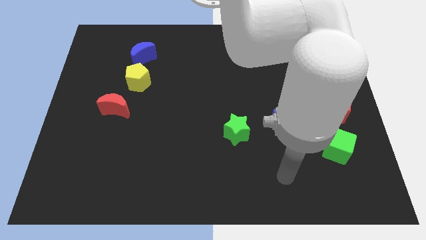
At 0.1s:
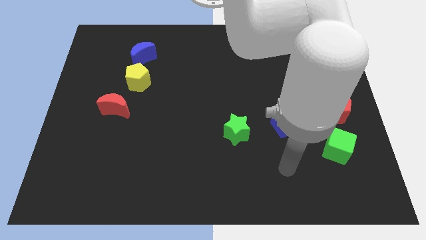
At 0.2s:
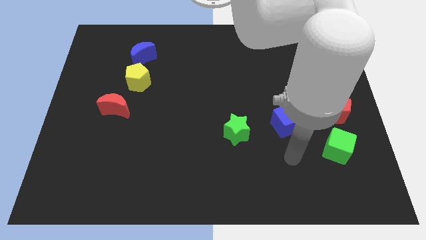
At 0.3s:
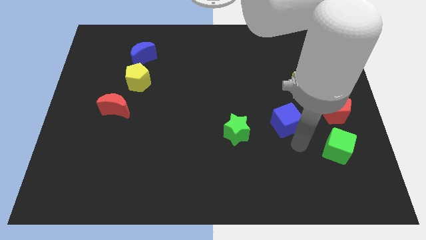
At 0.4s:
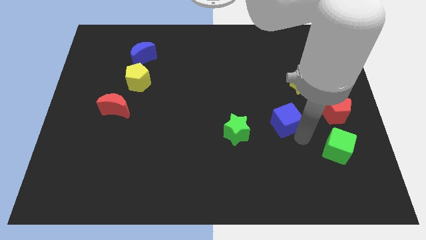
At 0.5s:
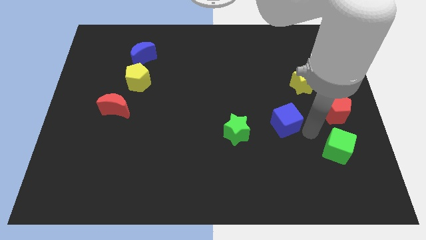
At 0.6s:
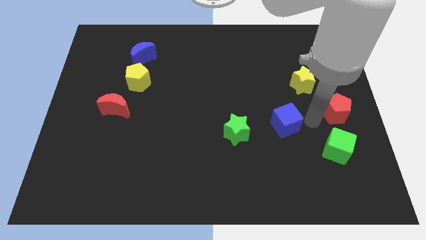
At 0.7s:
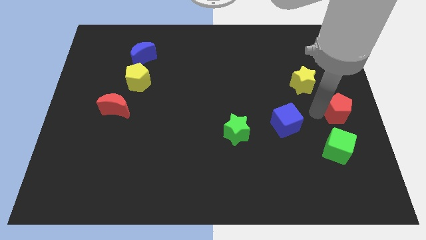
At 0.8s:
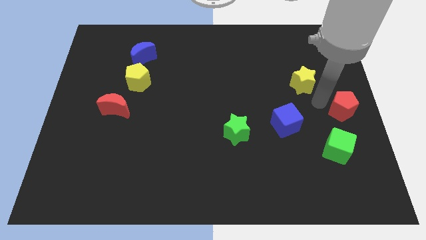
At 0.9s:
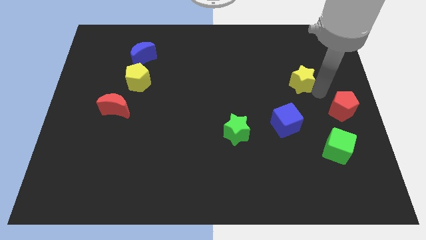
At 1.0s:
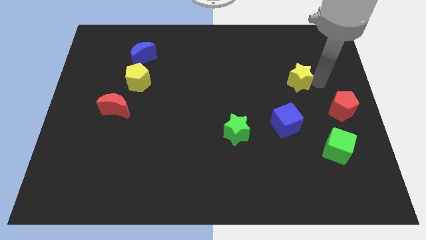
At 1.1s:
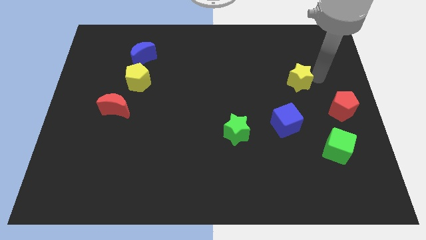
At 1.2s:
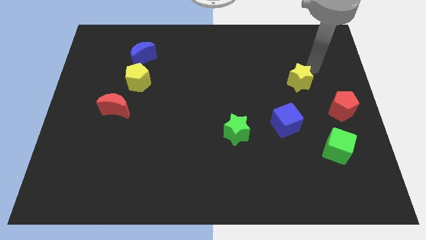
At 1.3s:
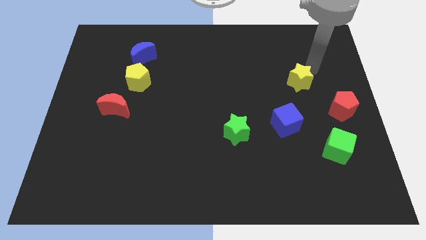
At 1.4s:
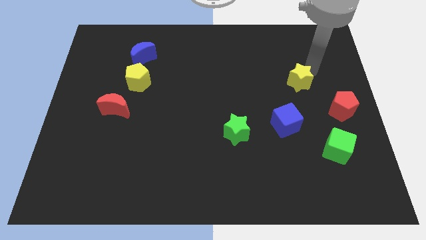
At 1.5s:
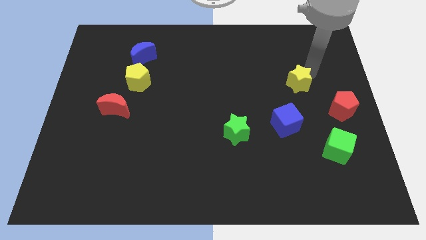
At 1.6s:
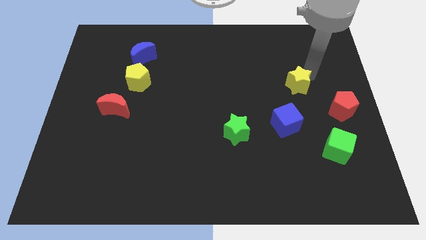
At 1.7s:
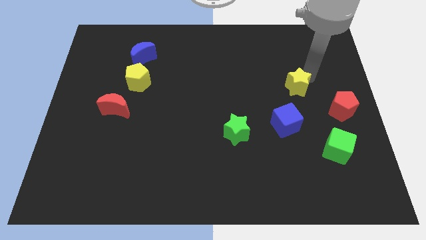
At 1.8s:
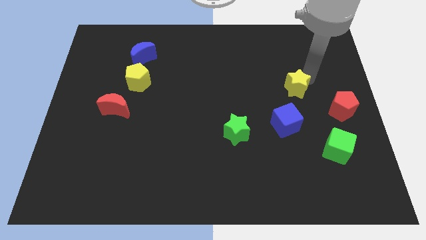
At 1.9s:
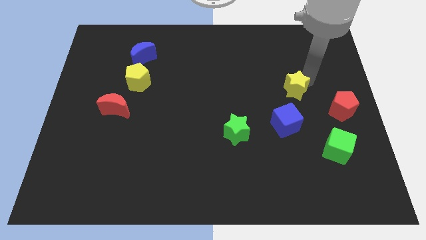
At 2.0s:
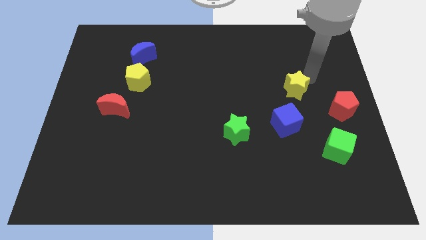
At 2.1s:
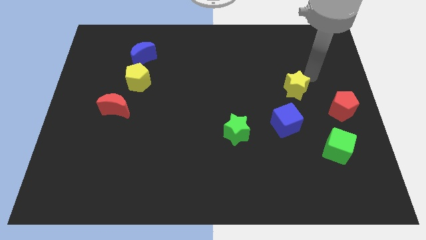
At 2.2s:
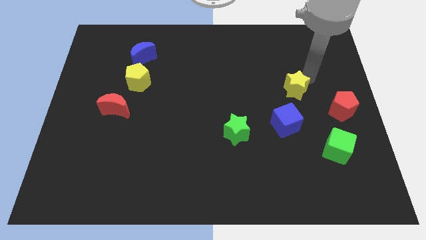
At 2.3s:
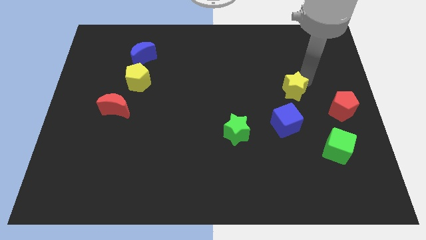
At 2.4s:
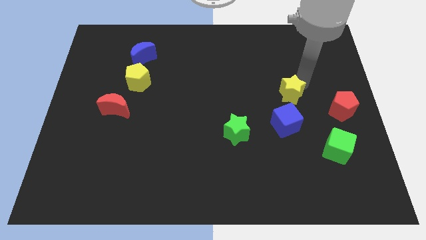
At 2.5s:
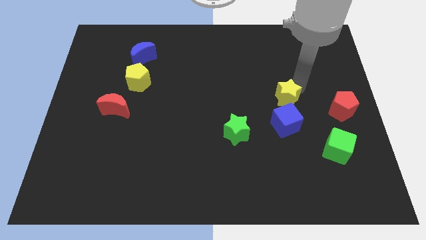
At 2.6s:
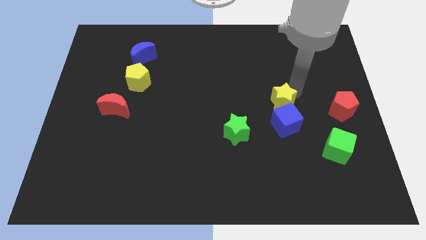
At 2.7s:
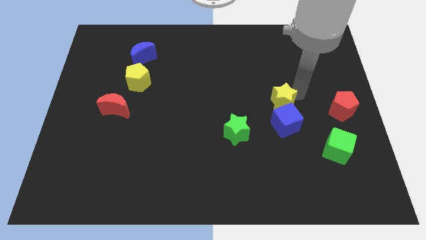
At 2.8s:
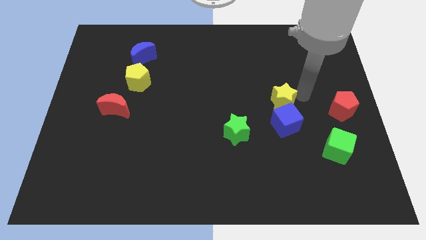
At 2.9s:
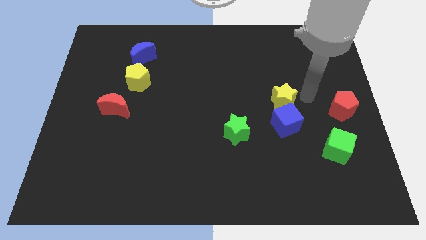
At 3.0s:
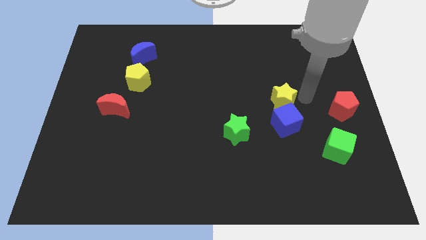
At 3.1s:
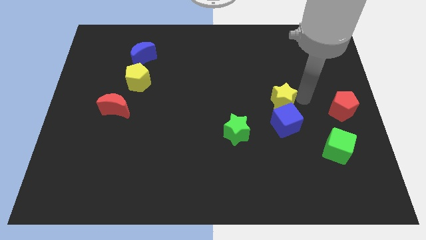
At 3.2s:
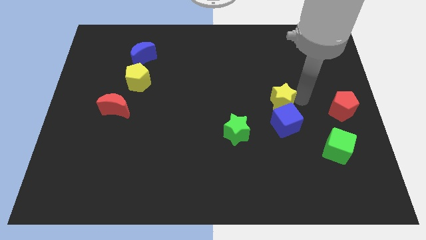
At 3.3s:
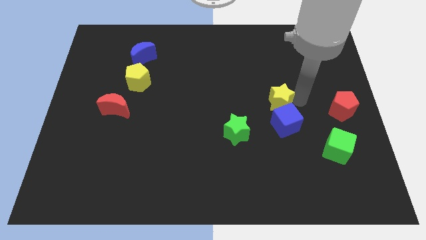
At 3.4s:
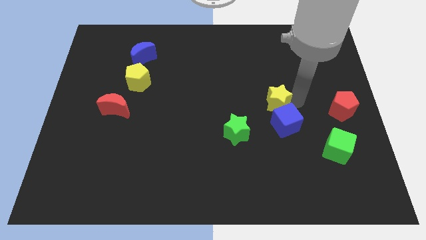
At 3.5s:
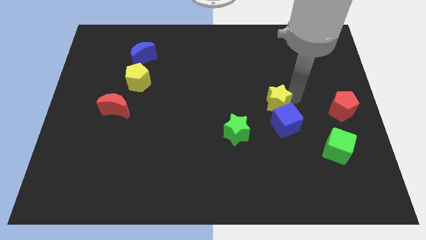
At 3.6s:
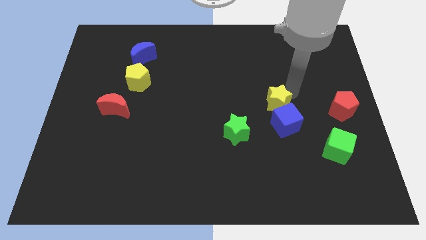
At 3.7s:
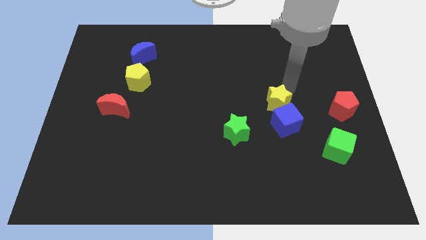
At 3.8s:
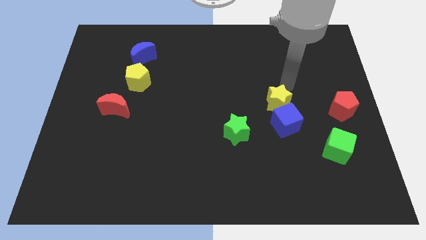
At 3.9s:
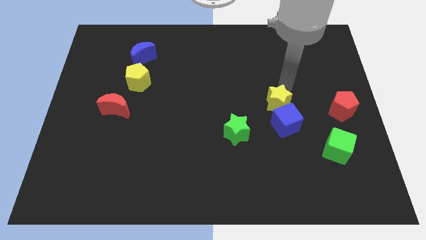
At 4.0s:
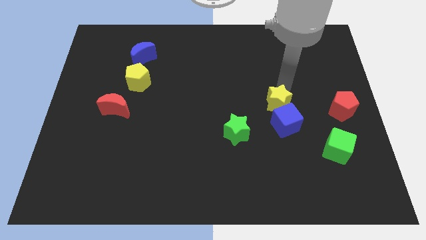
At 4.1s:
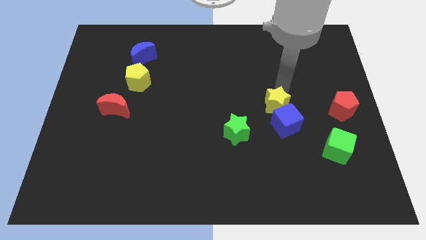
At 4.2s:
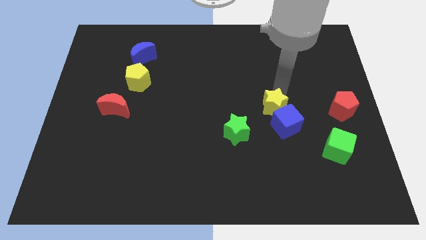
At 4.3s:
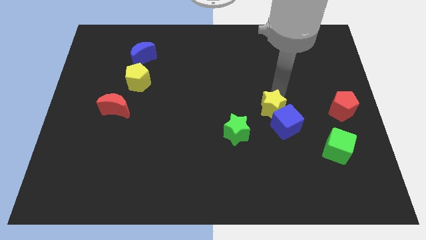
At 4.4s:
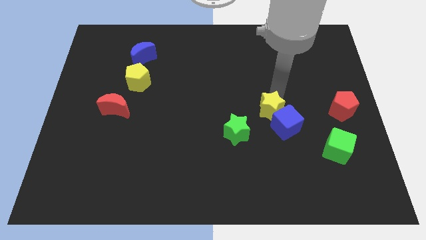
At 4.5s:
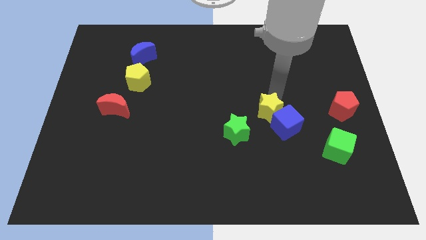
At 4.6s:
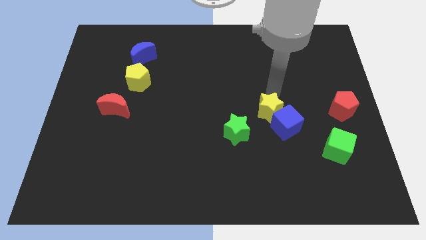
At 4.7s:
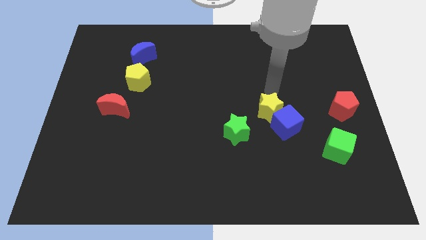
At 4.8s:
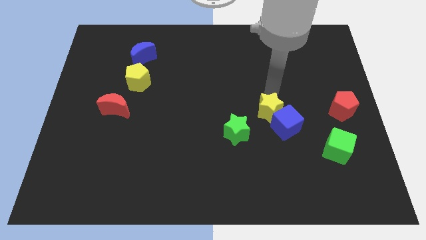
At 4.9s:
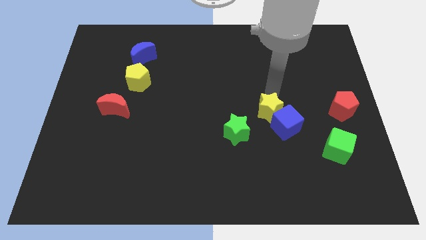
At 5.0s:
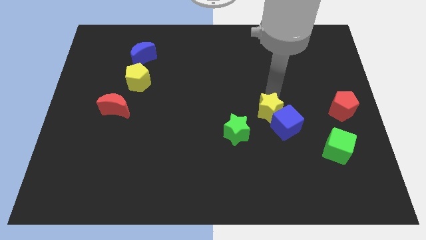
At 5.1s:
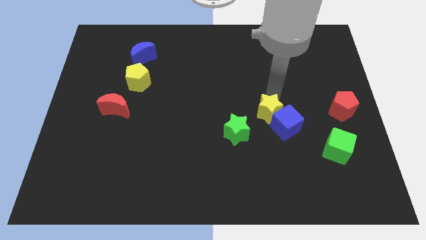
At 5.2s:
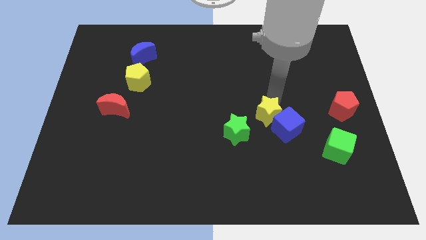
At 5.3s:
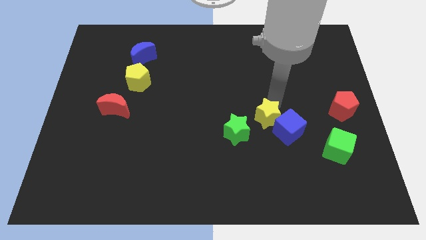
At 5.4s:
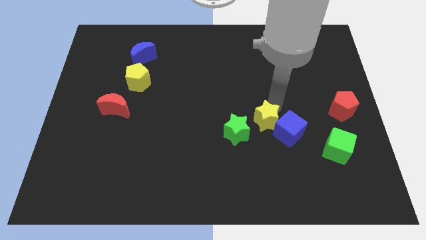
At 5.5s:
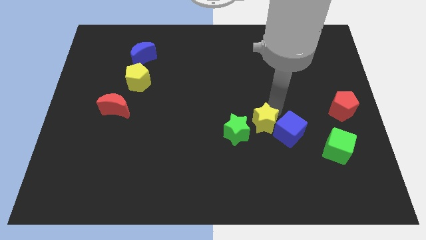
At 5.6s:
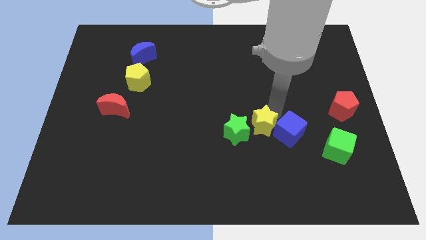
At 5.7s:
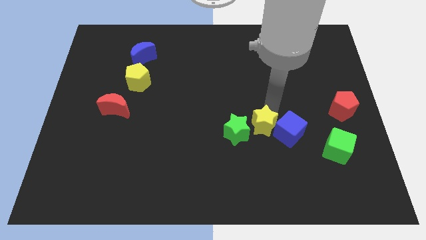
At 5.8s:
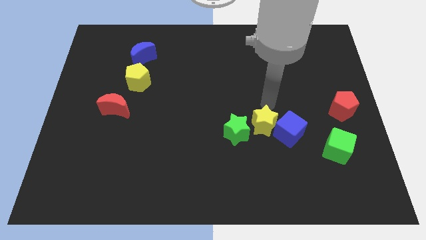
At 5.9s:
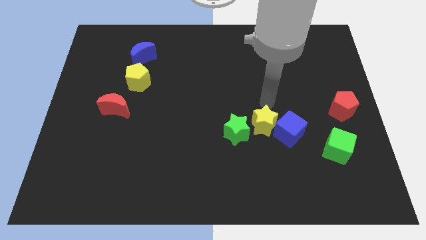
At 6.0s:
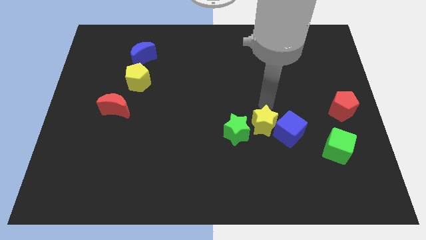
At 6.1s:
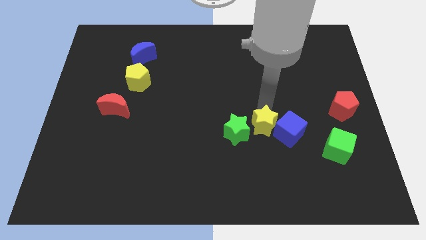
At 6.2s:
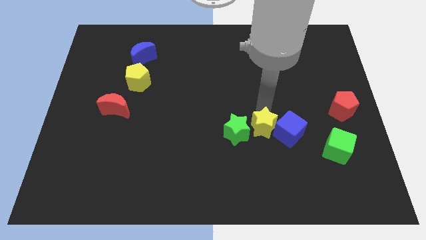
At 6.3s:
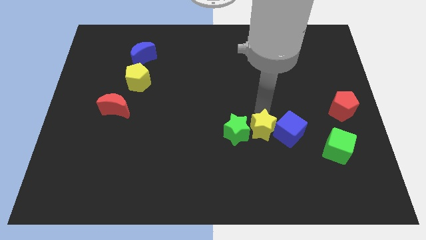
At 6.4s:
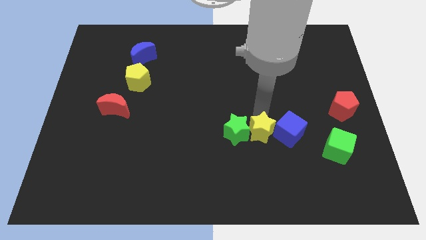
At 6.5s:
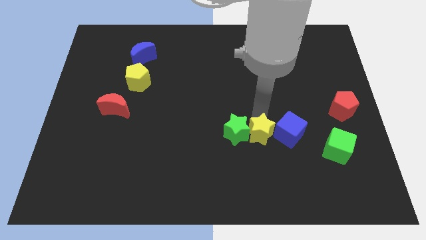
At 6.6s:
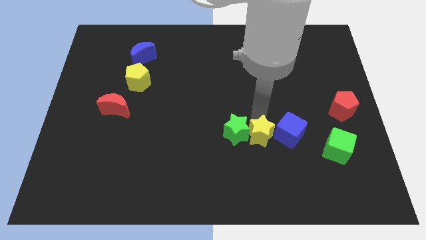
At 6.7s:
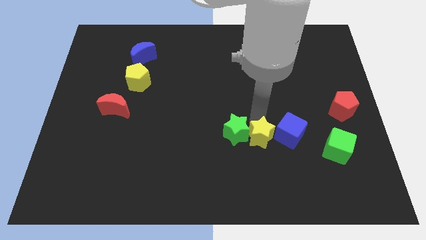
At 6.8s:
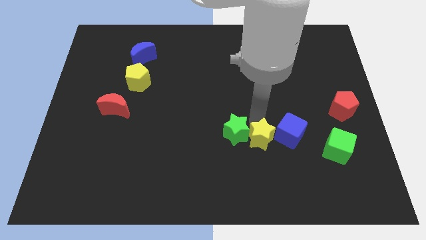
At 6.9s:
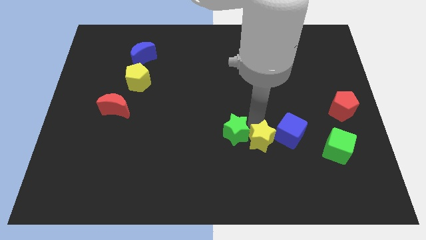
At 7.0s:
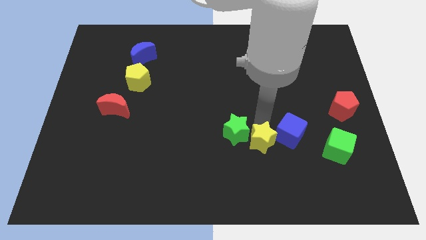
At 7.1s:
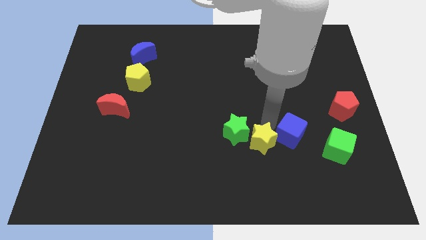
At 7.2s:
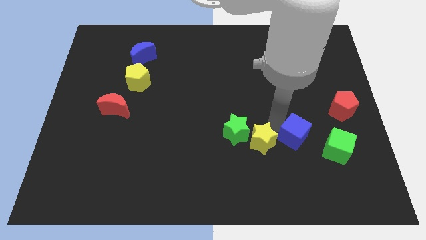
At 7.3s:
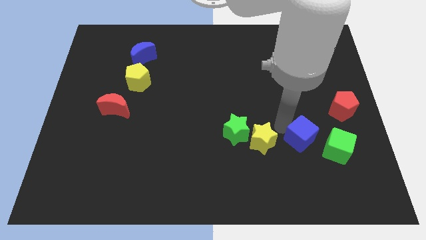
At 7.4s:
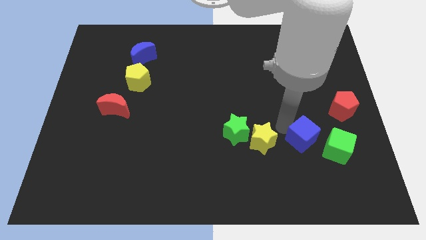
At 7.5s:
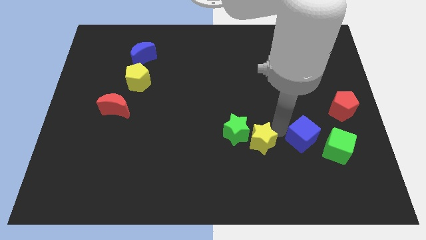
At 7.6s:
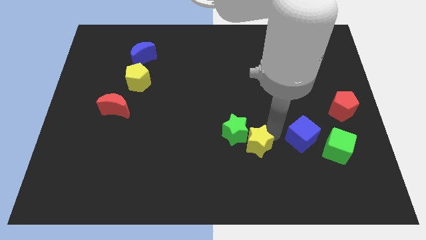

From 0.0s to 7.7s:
move the yellow star downwards and left diagonally

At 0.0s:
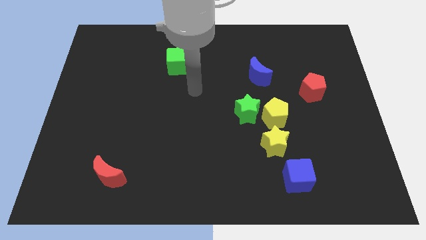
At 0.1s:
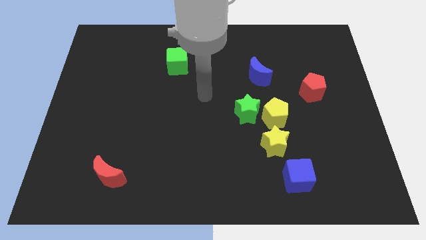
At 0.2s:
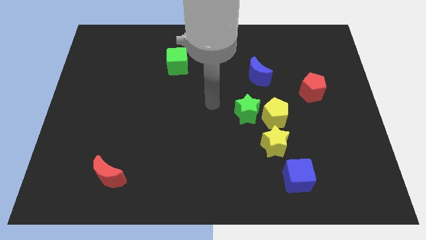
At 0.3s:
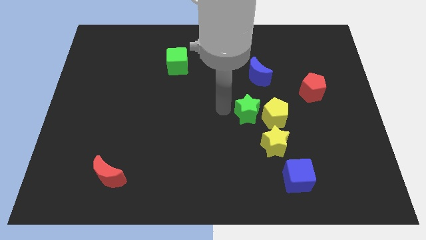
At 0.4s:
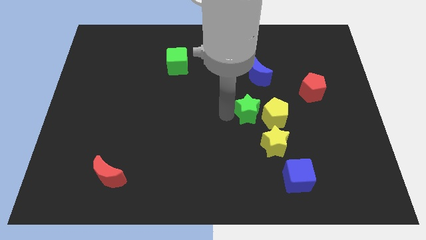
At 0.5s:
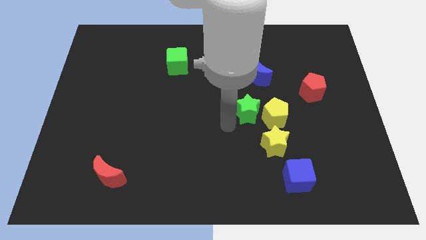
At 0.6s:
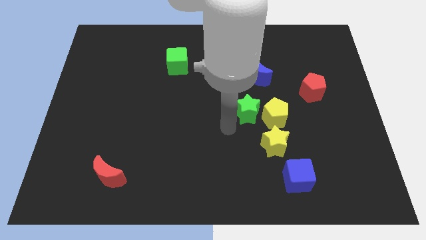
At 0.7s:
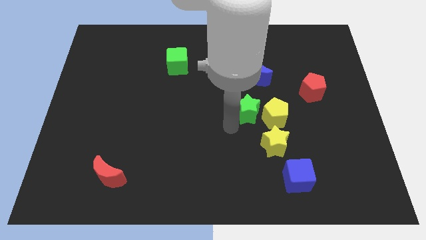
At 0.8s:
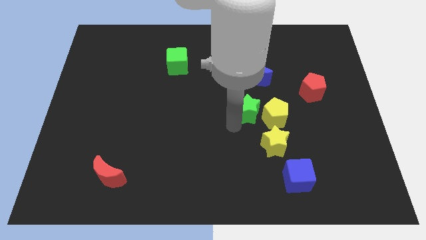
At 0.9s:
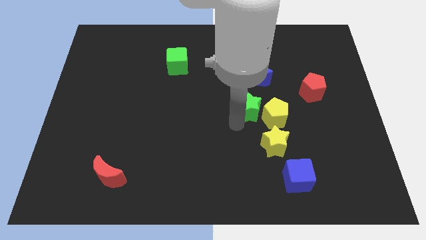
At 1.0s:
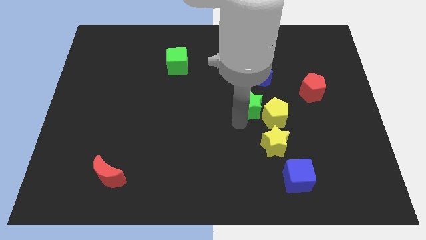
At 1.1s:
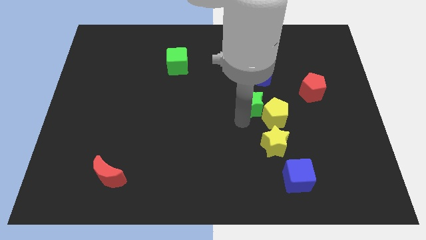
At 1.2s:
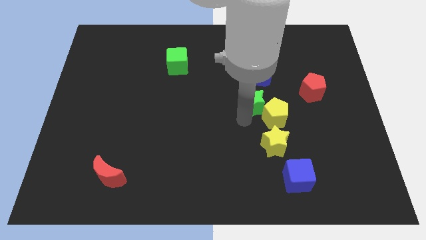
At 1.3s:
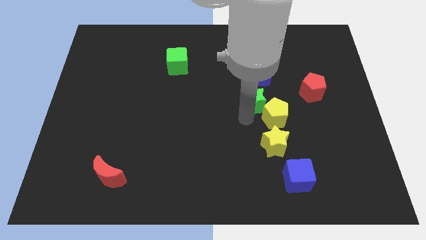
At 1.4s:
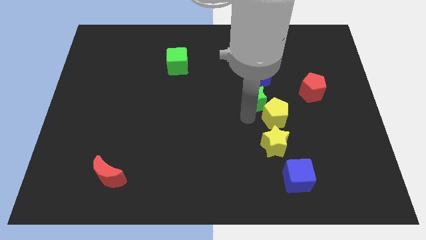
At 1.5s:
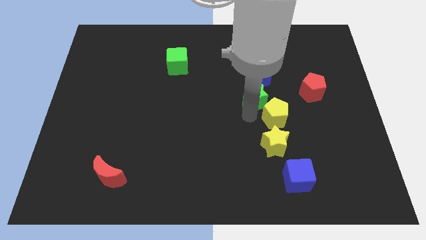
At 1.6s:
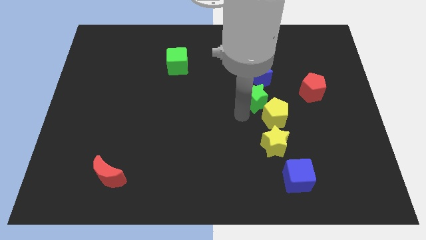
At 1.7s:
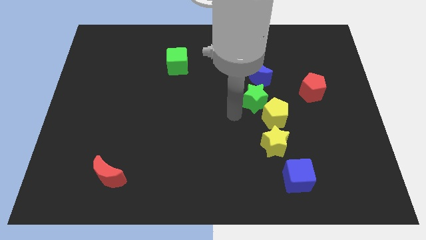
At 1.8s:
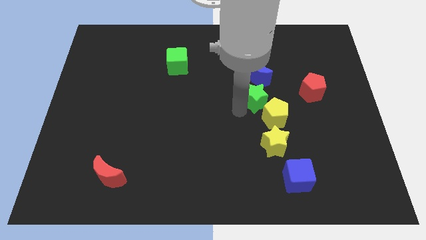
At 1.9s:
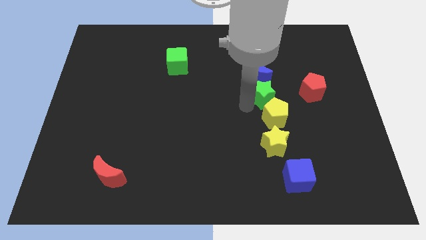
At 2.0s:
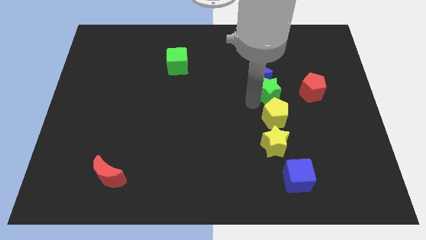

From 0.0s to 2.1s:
slightly slide the green star diagonally up and to the right
